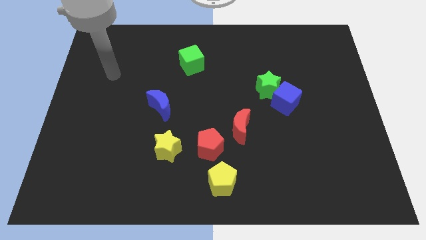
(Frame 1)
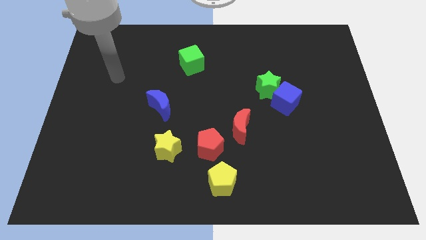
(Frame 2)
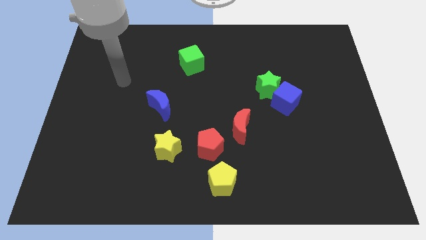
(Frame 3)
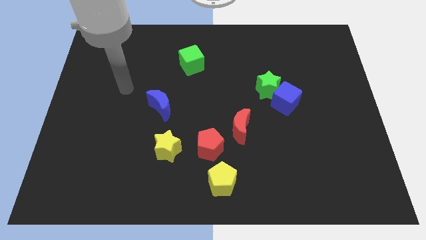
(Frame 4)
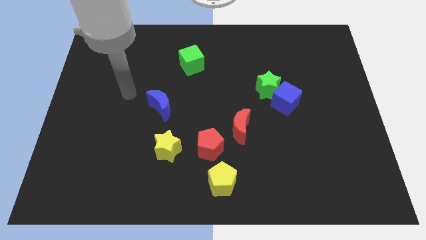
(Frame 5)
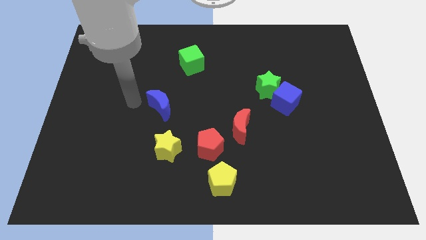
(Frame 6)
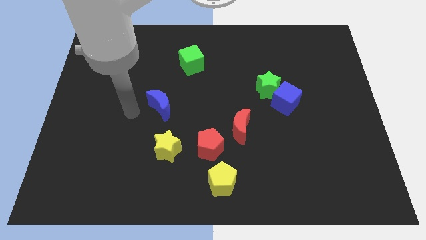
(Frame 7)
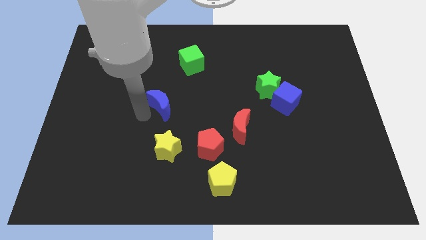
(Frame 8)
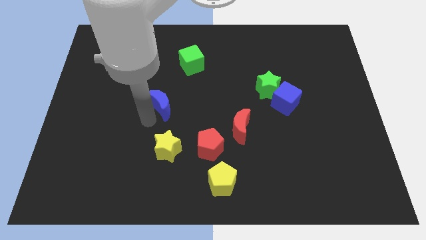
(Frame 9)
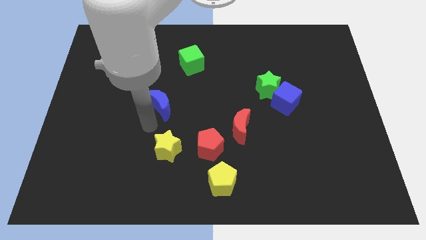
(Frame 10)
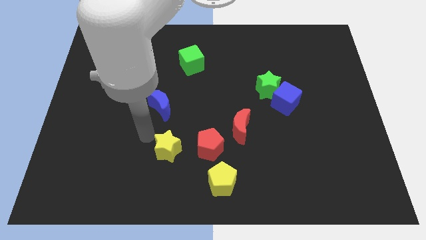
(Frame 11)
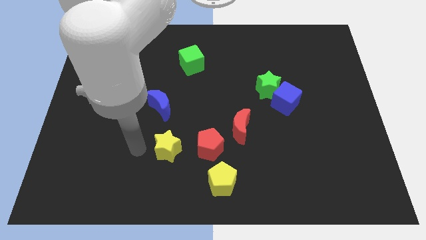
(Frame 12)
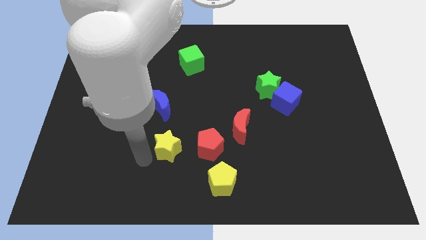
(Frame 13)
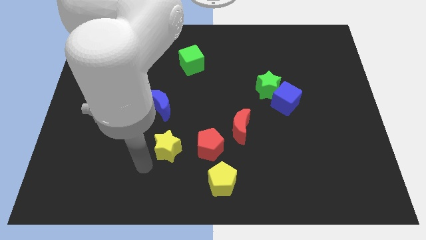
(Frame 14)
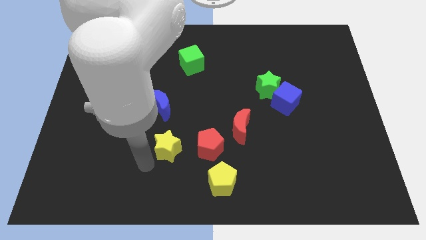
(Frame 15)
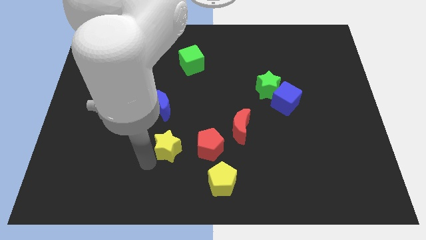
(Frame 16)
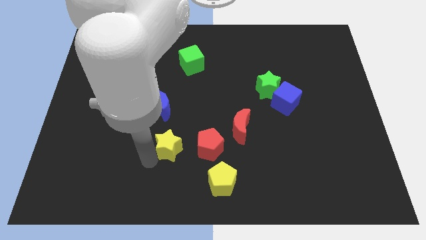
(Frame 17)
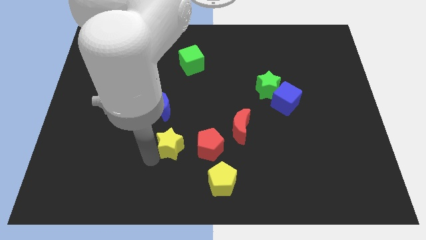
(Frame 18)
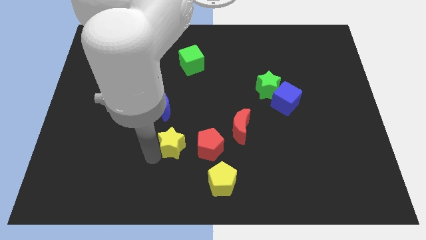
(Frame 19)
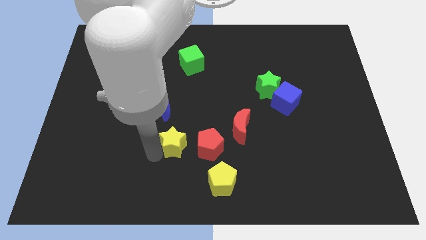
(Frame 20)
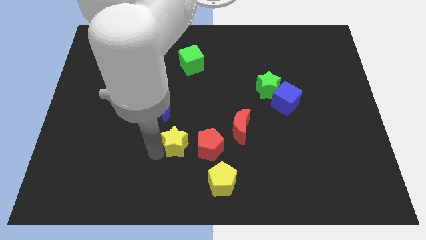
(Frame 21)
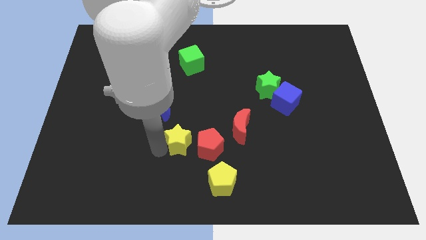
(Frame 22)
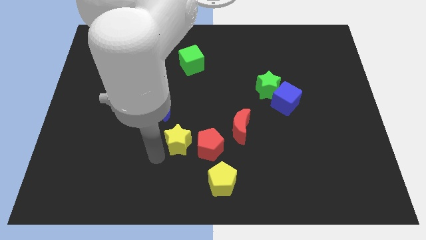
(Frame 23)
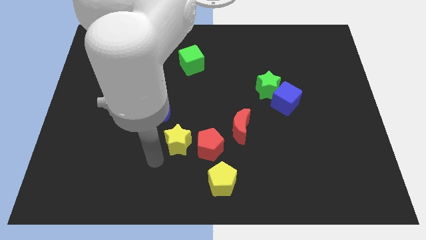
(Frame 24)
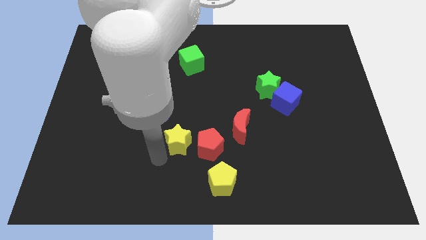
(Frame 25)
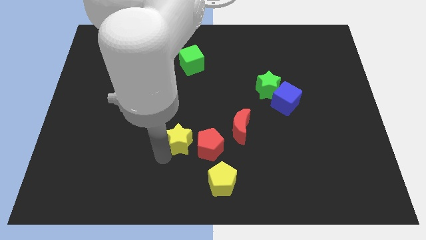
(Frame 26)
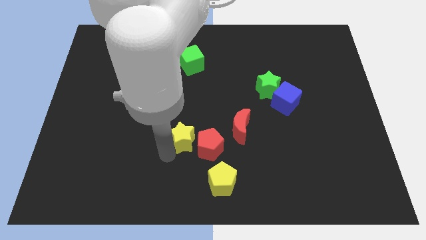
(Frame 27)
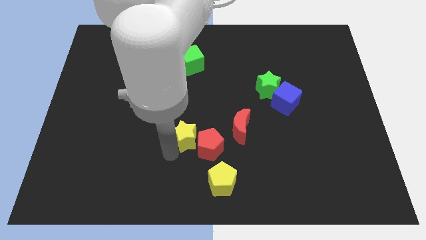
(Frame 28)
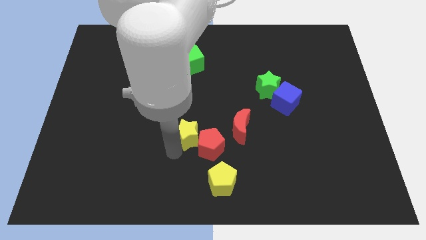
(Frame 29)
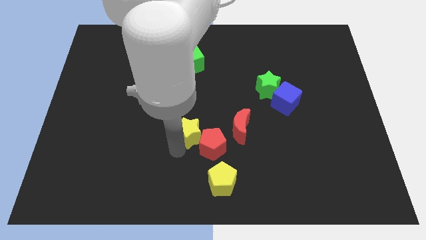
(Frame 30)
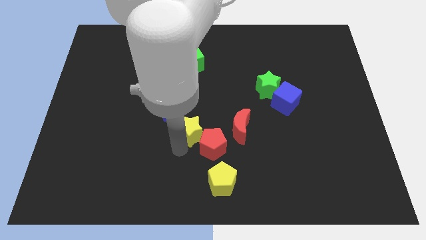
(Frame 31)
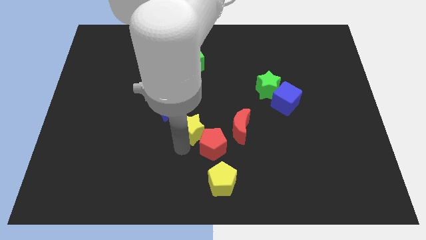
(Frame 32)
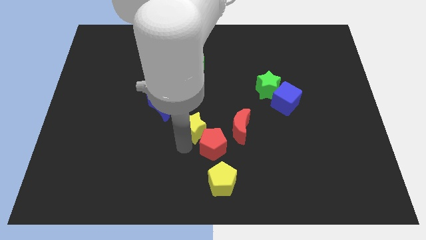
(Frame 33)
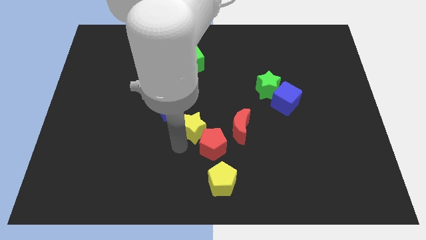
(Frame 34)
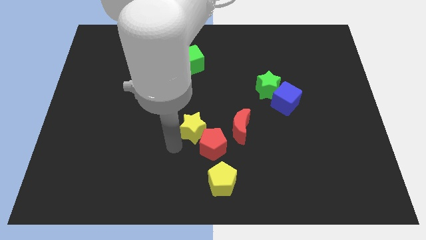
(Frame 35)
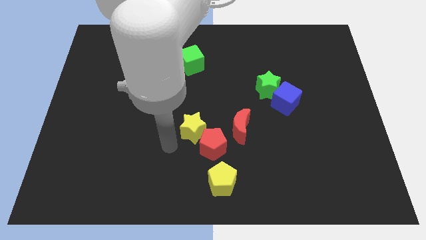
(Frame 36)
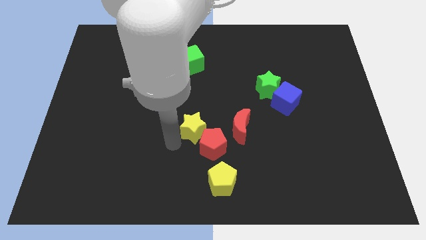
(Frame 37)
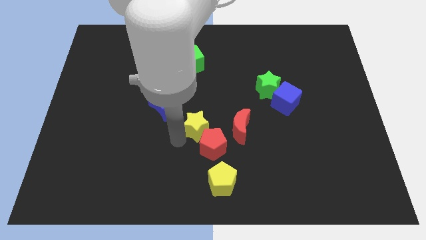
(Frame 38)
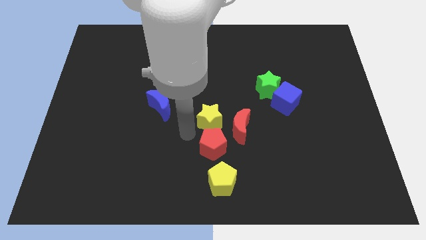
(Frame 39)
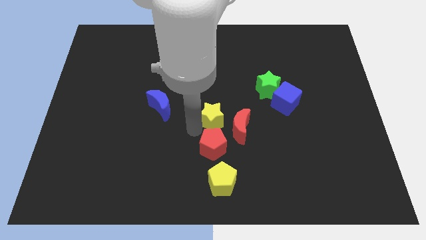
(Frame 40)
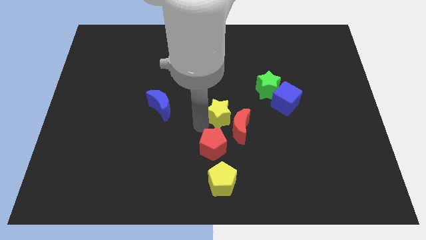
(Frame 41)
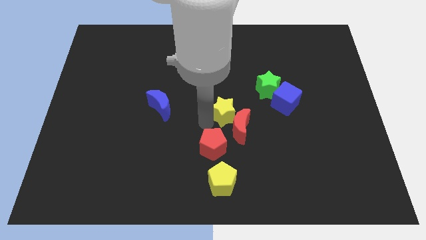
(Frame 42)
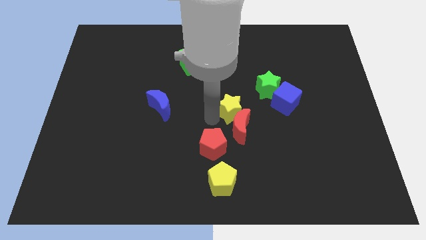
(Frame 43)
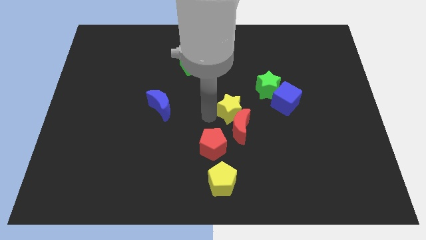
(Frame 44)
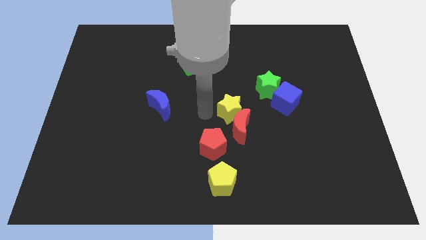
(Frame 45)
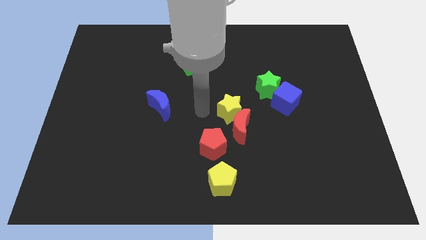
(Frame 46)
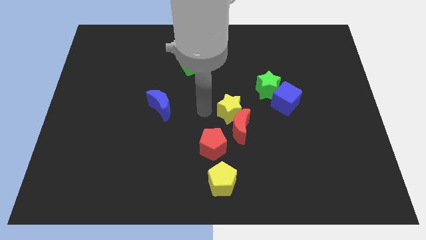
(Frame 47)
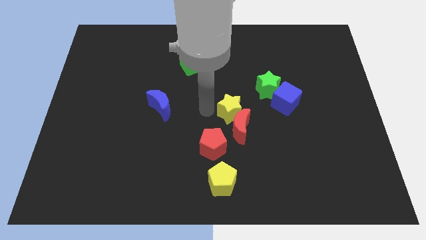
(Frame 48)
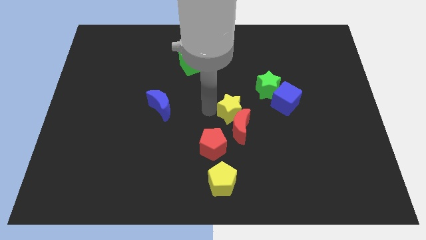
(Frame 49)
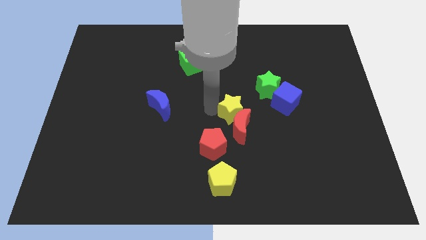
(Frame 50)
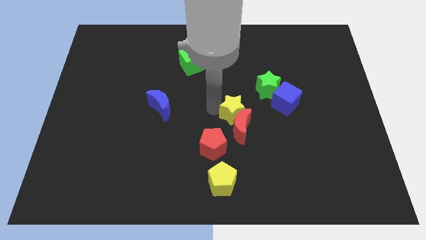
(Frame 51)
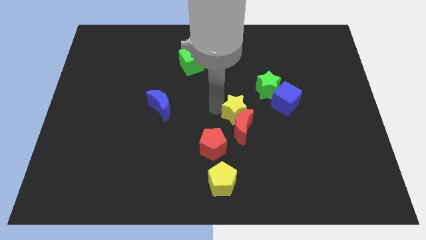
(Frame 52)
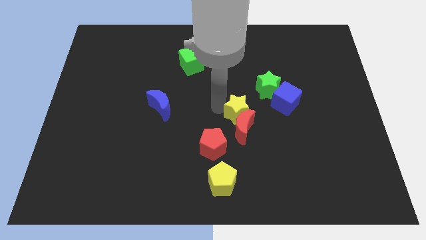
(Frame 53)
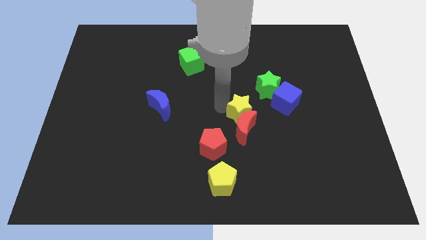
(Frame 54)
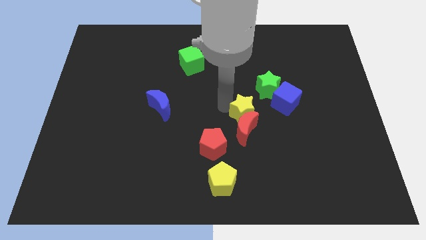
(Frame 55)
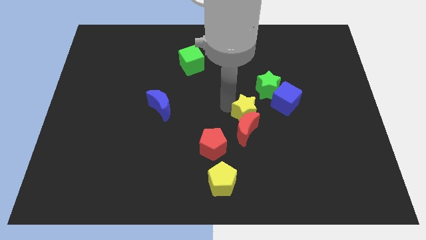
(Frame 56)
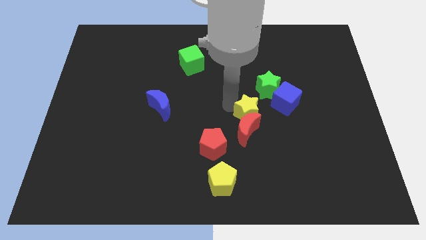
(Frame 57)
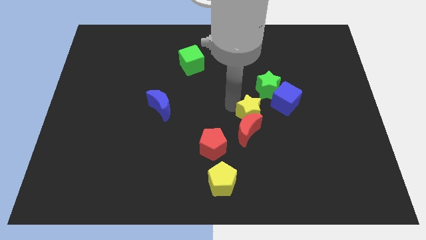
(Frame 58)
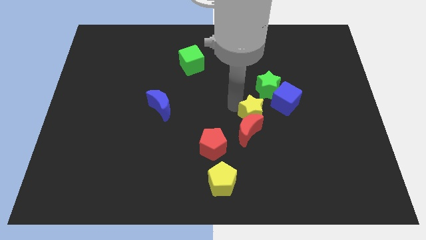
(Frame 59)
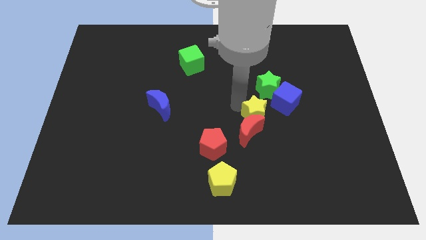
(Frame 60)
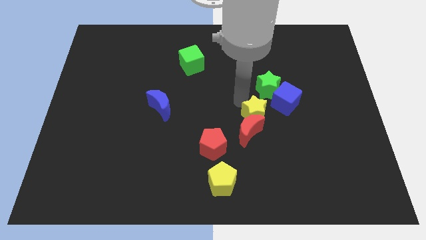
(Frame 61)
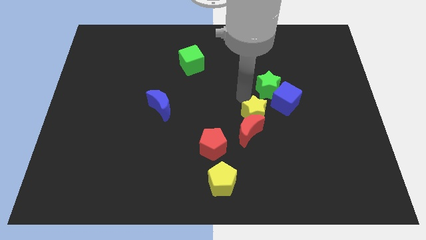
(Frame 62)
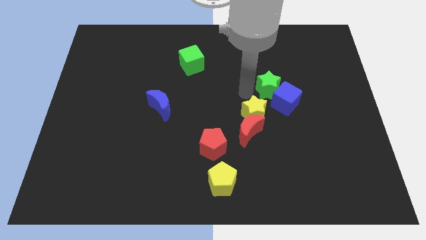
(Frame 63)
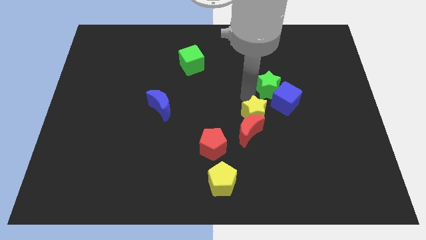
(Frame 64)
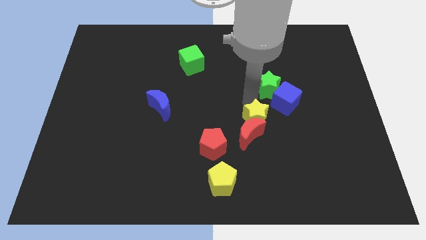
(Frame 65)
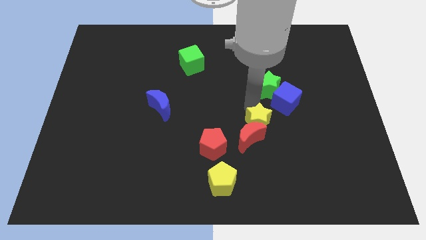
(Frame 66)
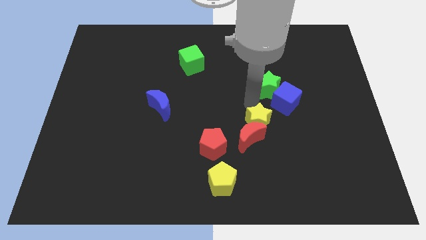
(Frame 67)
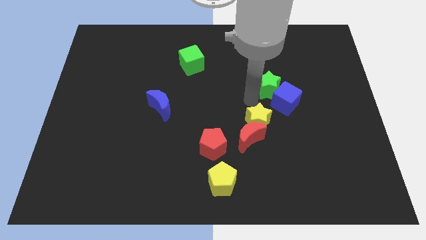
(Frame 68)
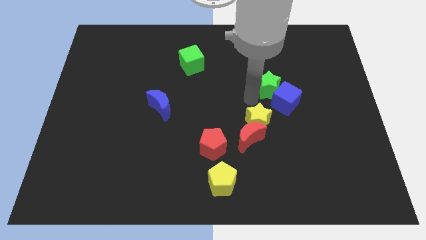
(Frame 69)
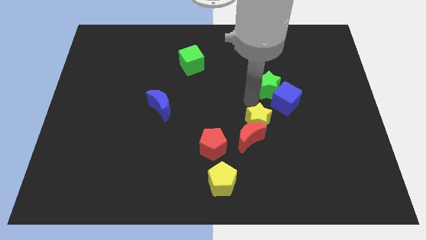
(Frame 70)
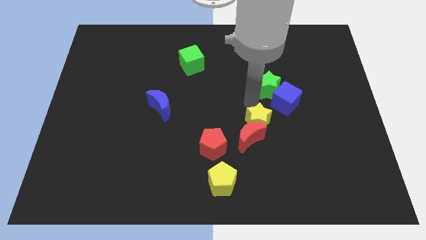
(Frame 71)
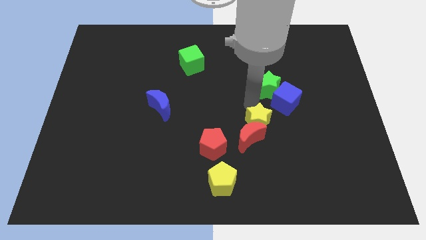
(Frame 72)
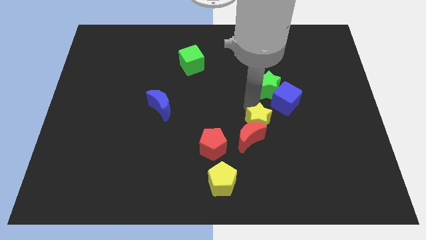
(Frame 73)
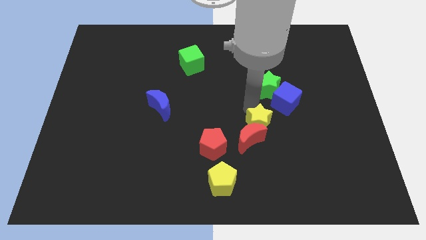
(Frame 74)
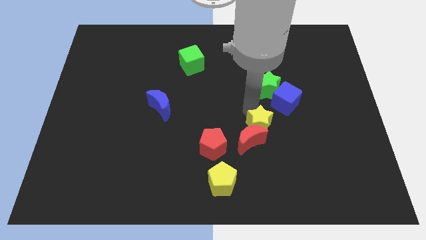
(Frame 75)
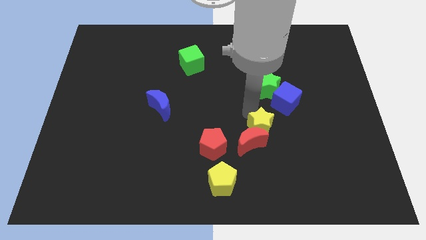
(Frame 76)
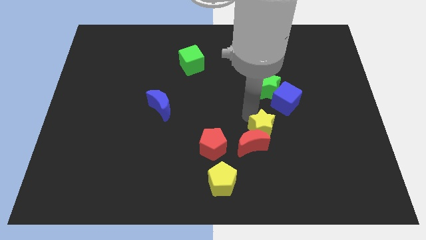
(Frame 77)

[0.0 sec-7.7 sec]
move the yellow star right of the red pentagon
